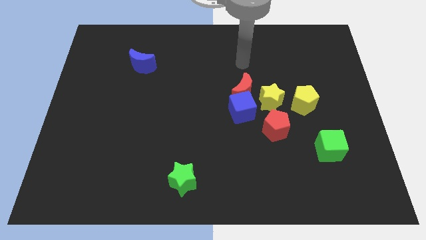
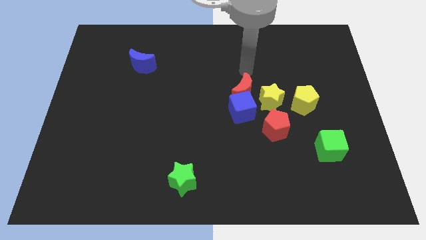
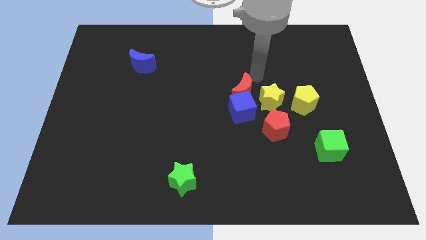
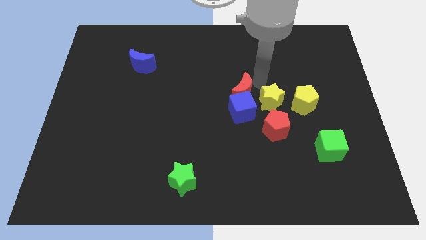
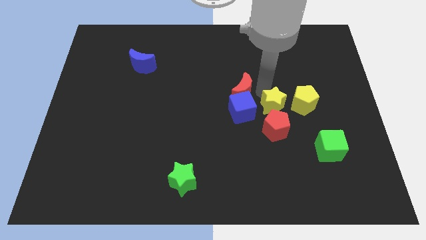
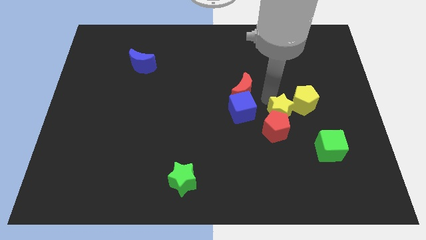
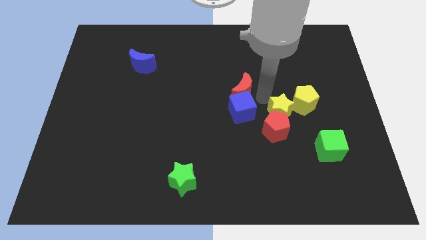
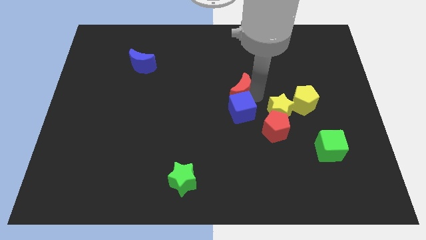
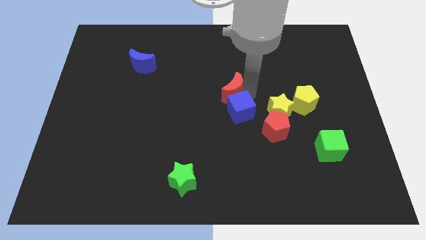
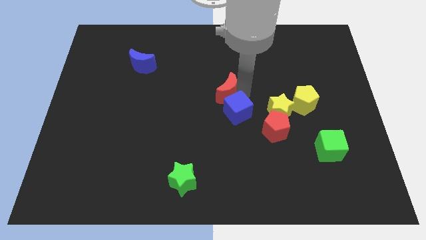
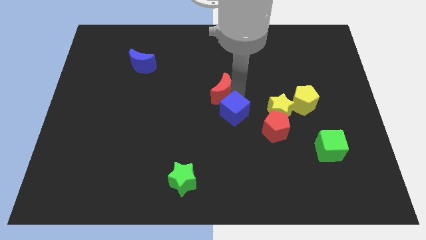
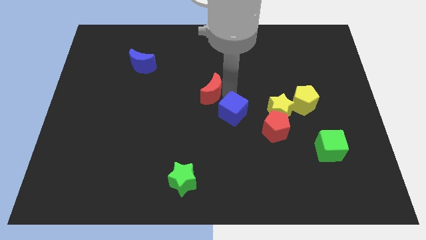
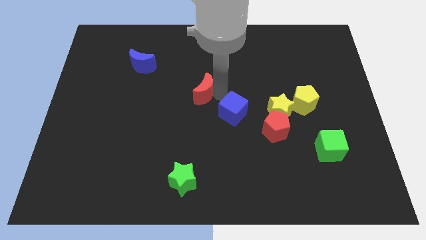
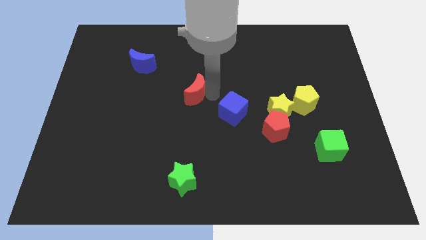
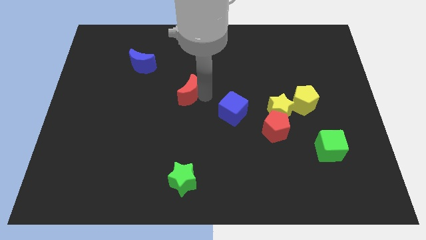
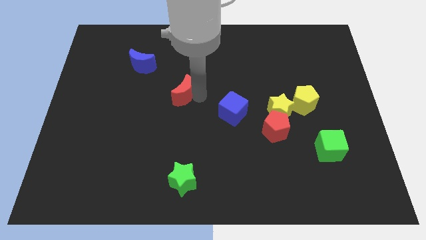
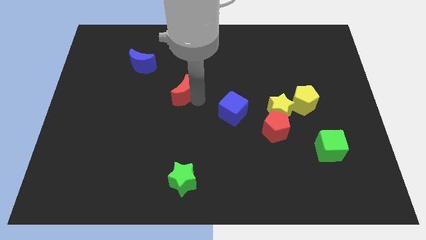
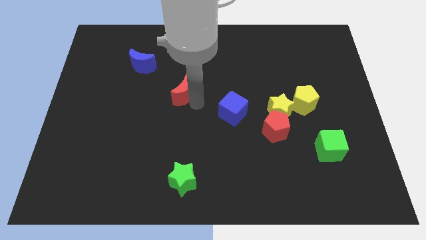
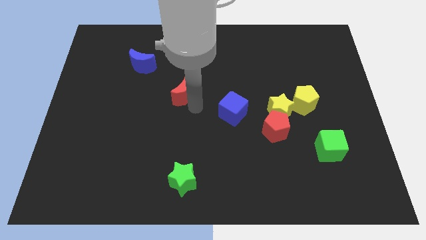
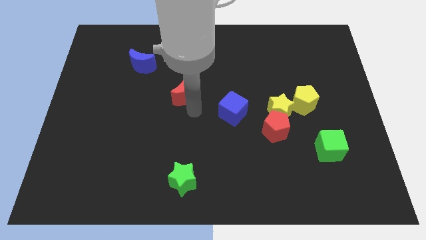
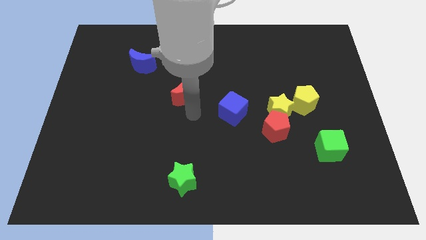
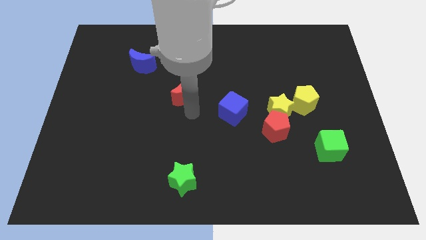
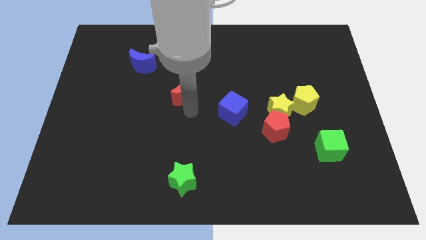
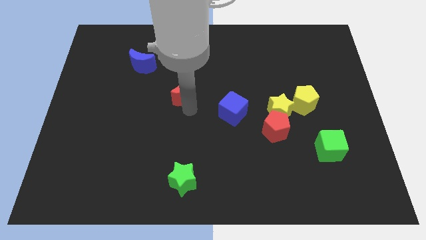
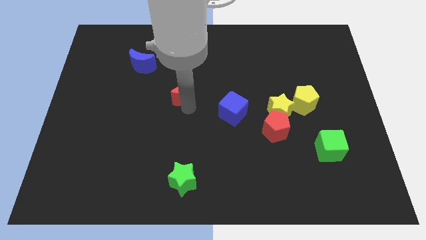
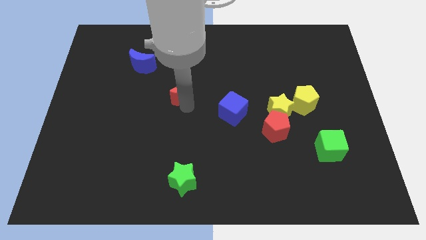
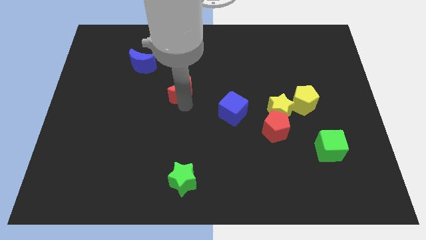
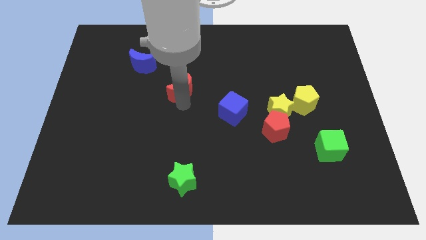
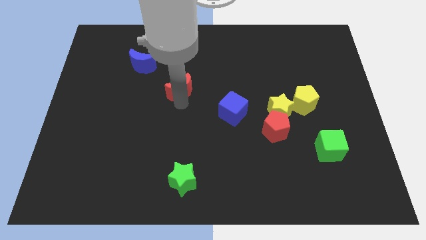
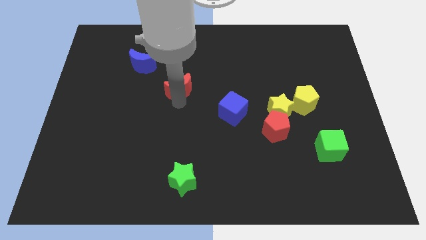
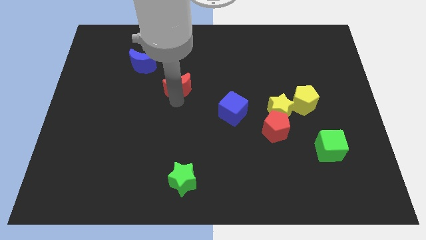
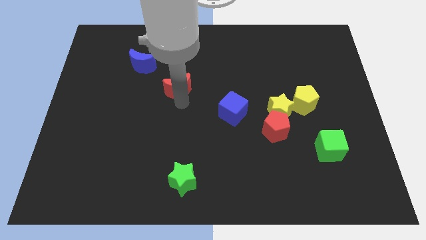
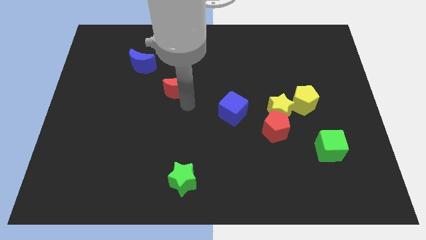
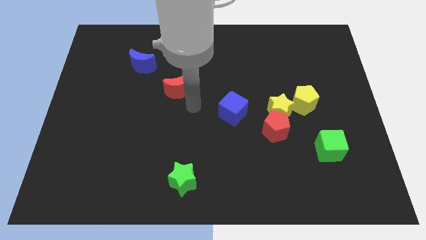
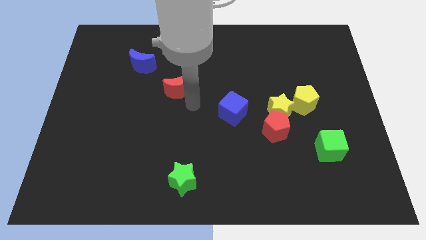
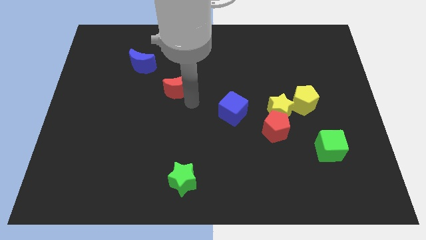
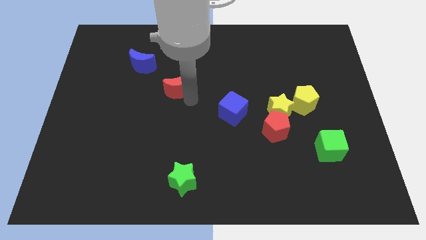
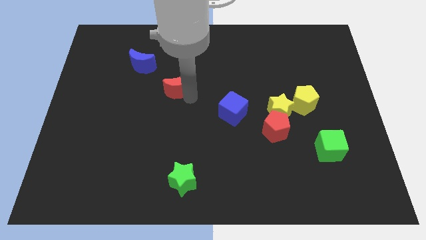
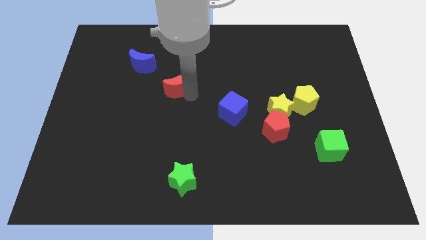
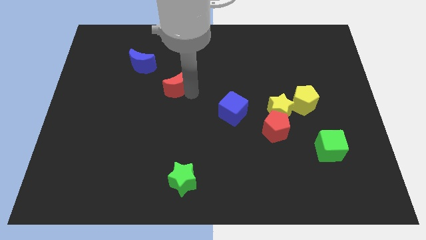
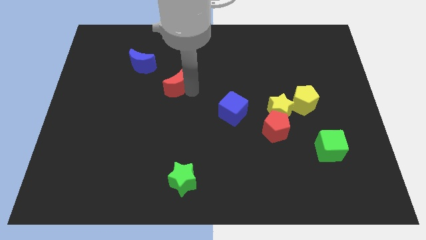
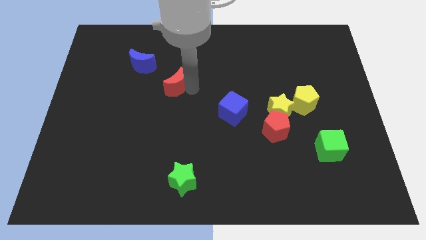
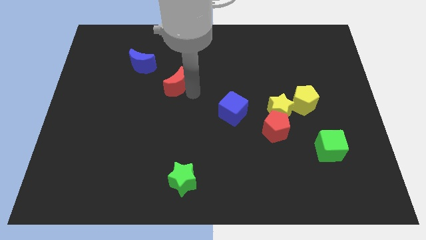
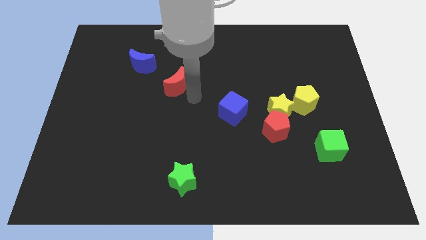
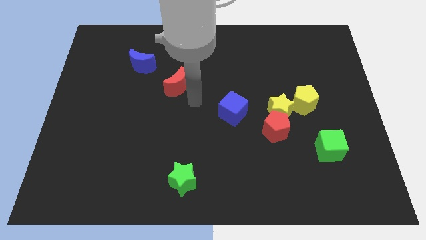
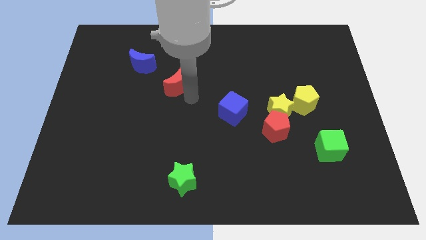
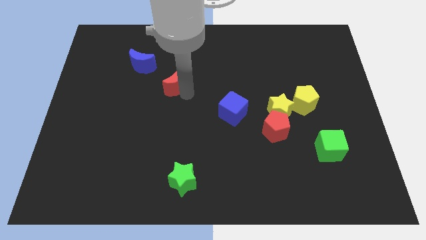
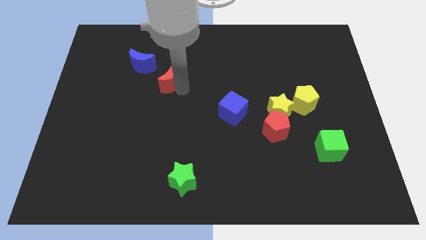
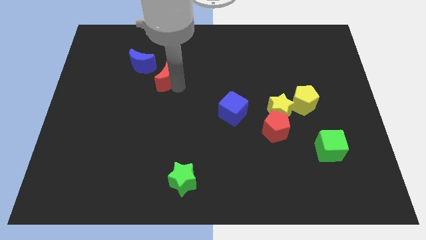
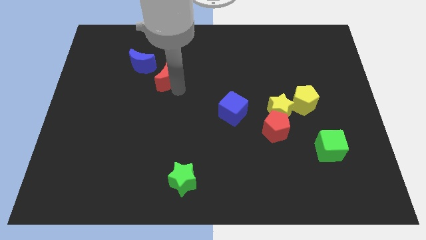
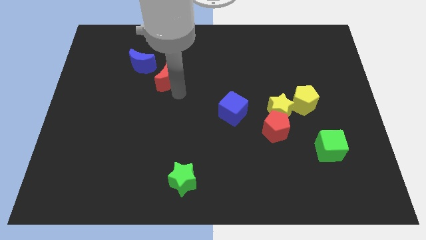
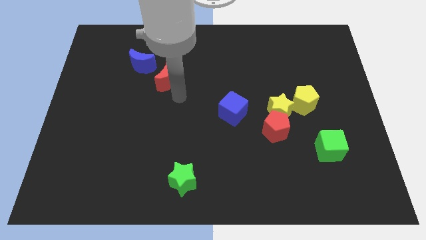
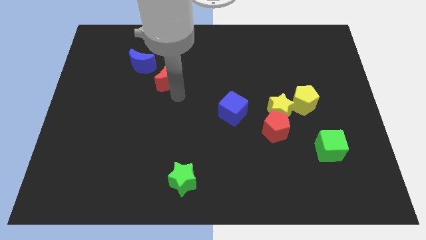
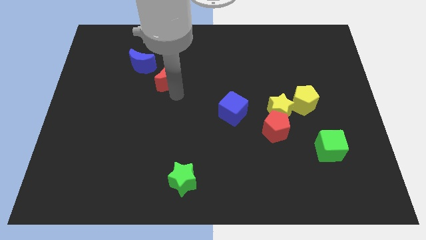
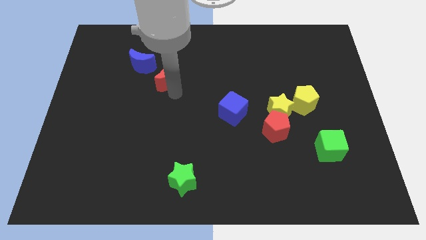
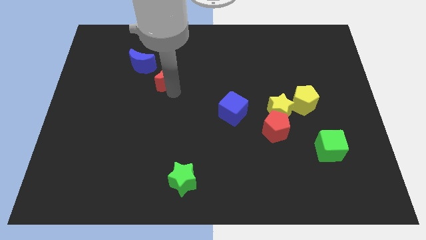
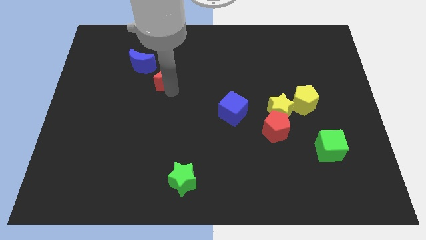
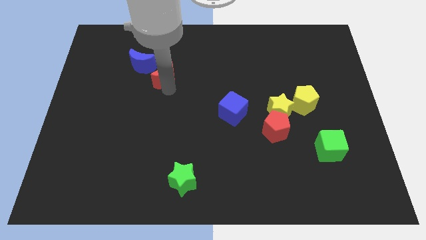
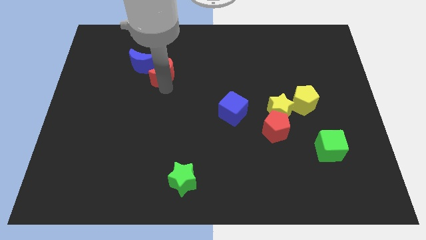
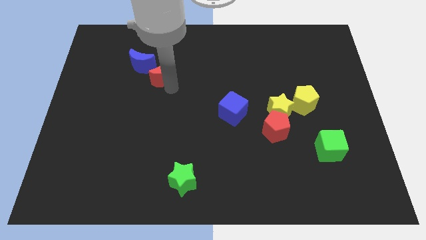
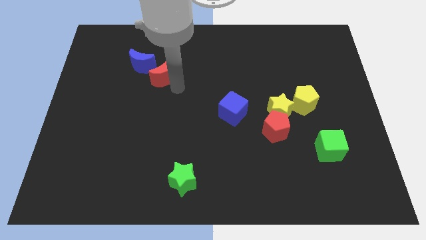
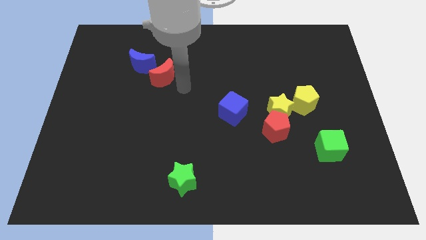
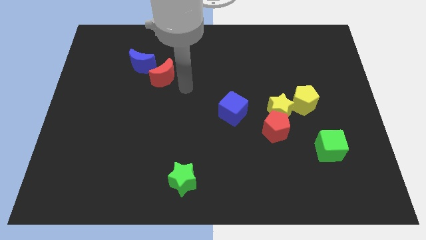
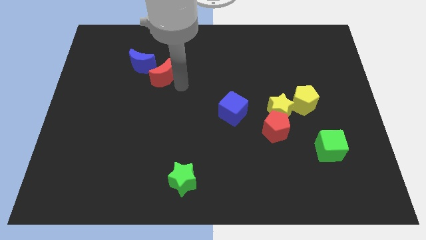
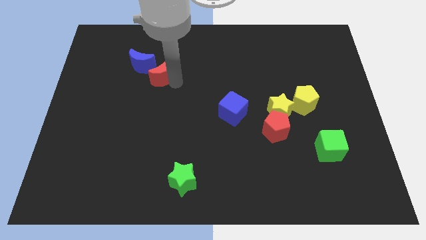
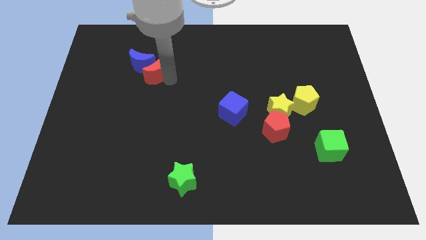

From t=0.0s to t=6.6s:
put the red moon towards the blue moon

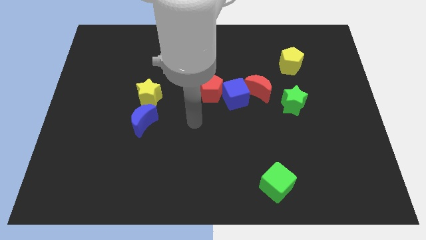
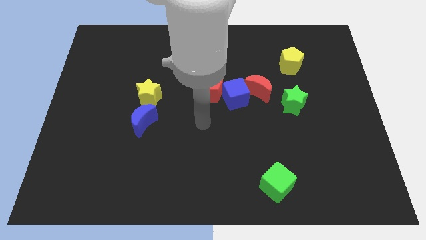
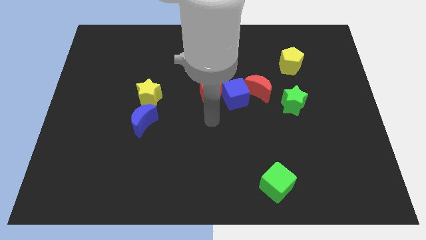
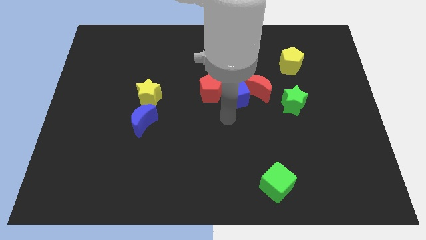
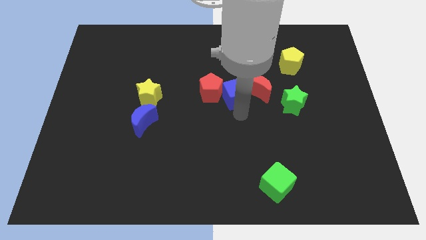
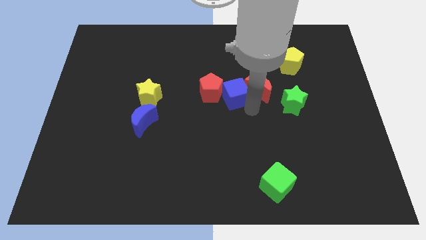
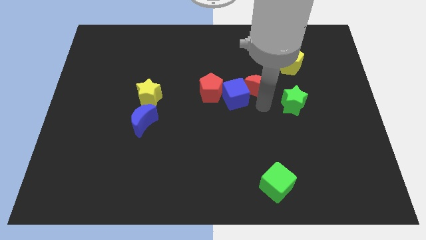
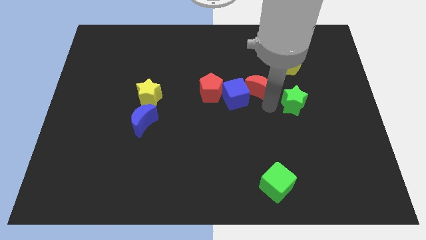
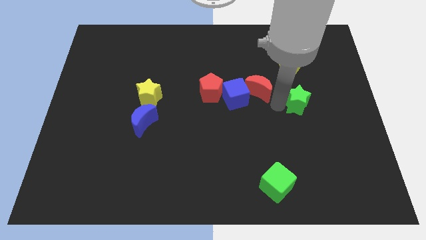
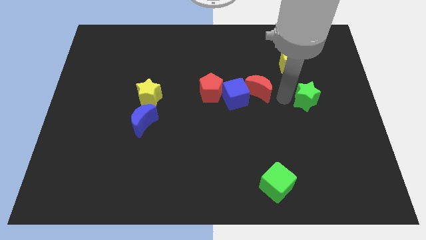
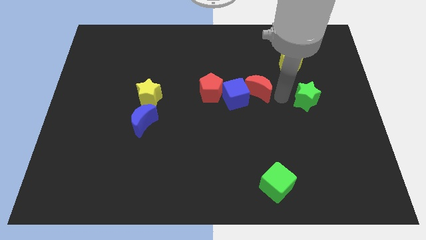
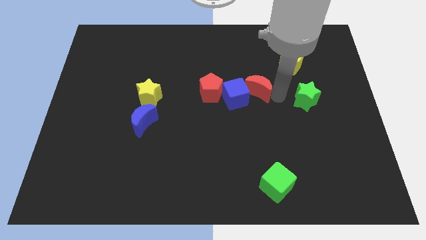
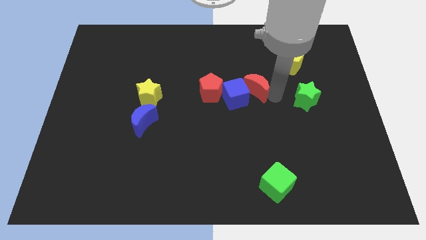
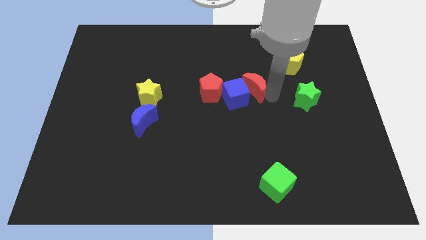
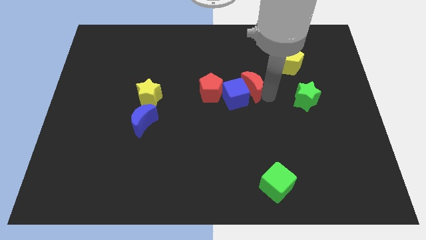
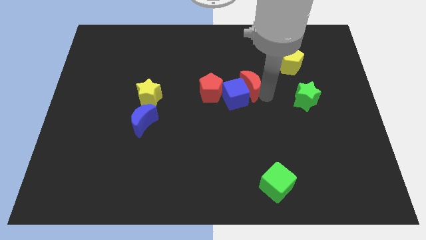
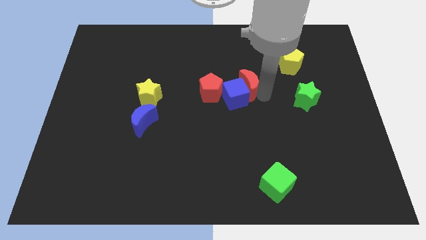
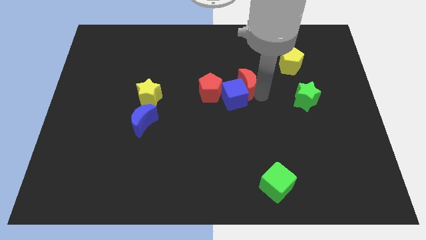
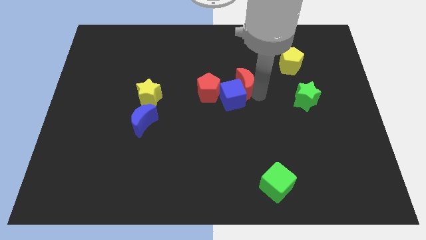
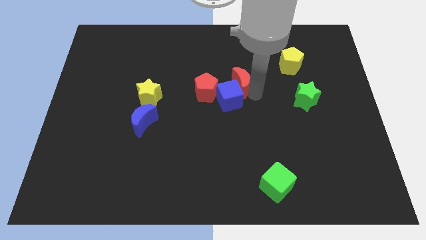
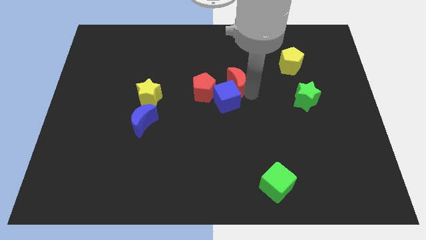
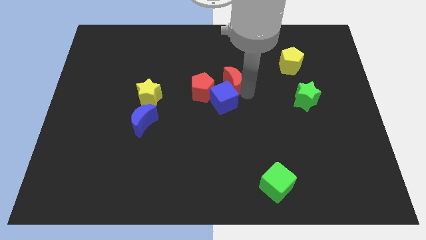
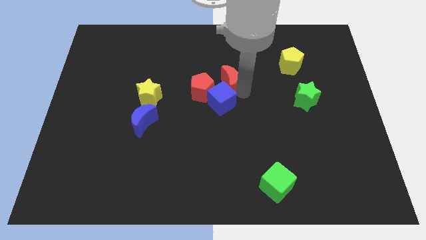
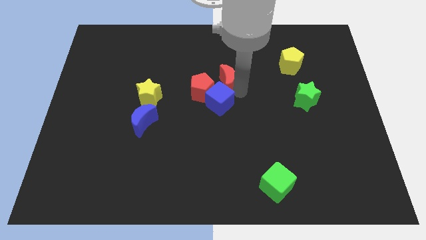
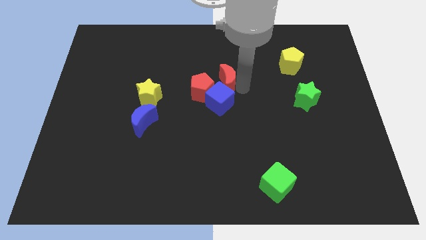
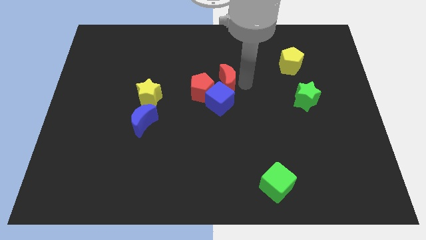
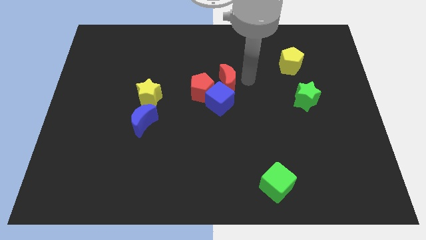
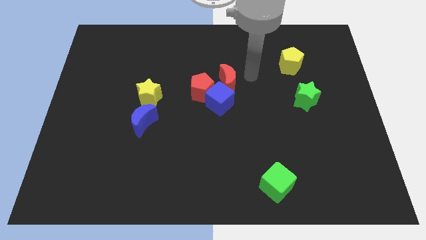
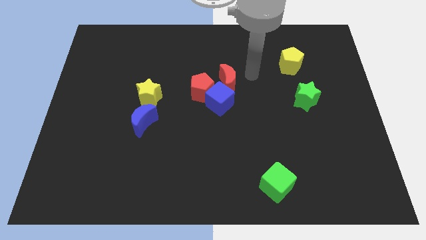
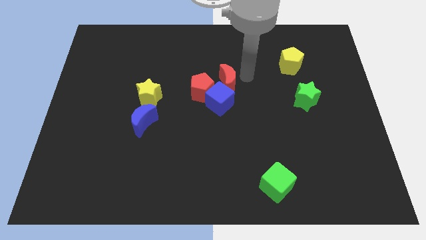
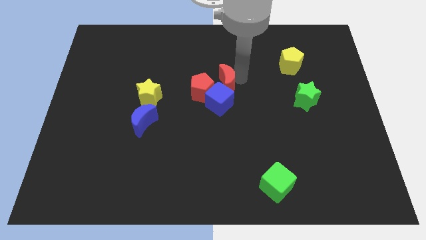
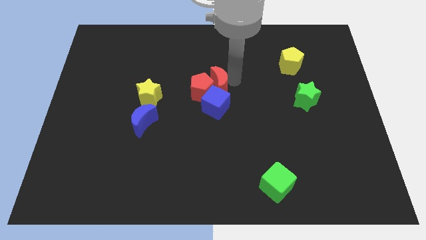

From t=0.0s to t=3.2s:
put the red moon towards the red pentagon
